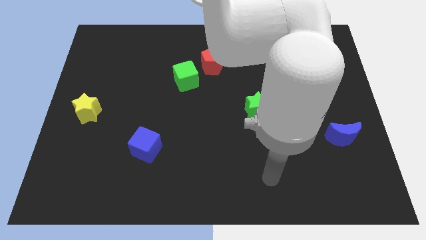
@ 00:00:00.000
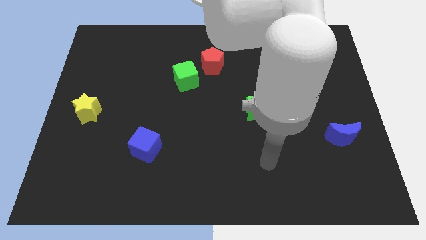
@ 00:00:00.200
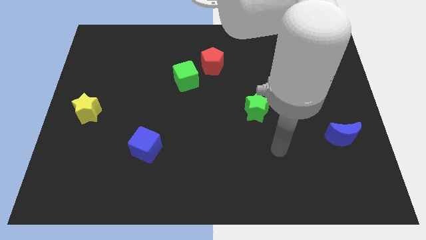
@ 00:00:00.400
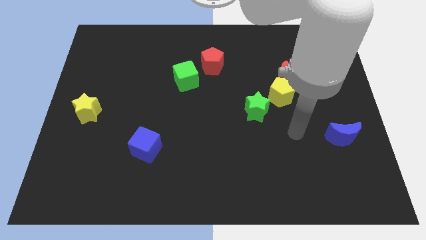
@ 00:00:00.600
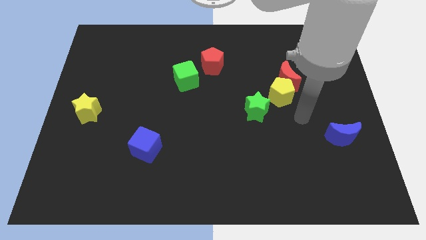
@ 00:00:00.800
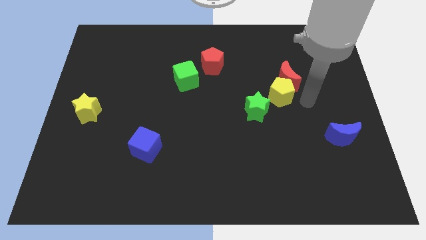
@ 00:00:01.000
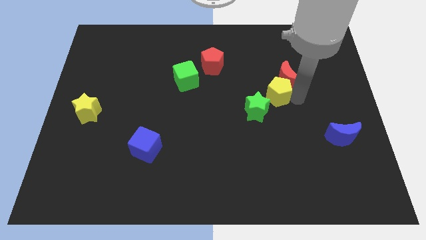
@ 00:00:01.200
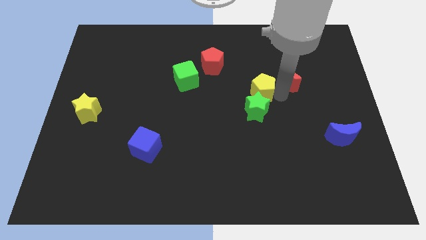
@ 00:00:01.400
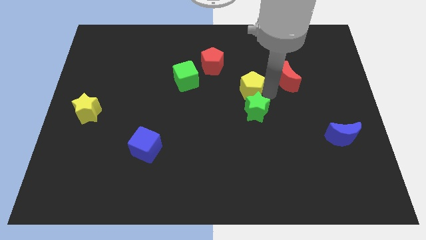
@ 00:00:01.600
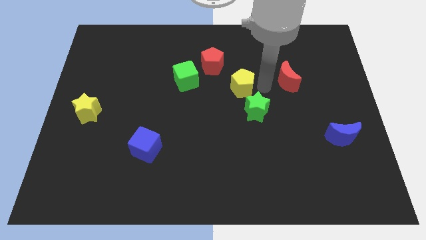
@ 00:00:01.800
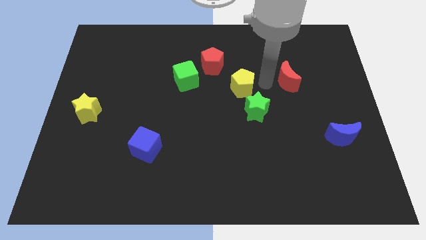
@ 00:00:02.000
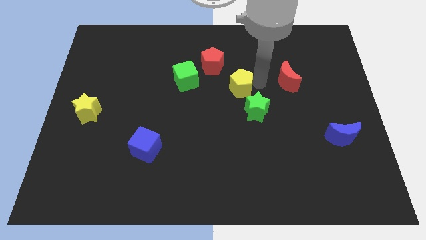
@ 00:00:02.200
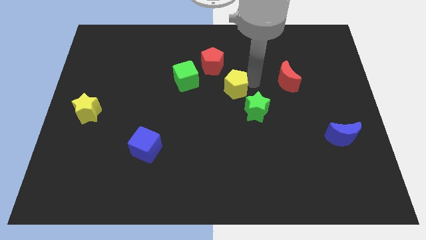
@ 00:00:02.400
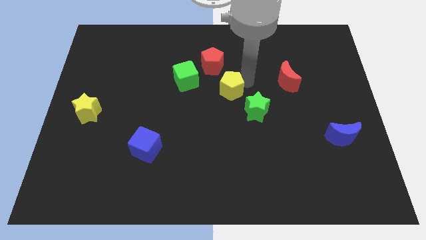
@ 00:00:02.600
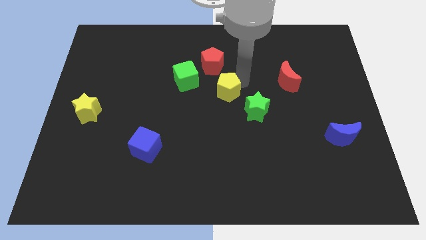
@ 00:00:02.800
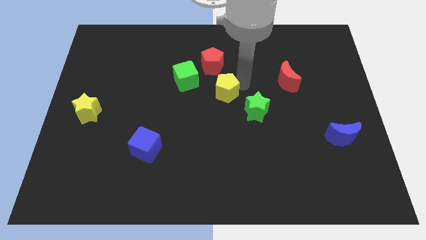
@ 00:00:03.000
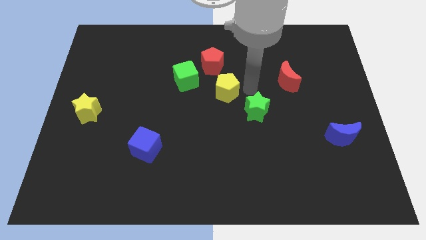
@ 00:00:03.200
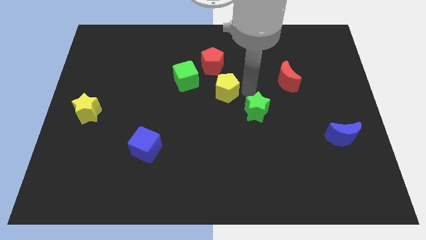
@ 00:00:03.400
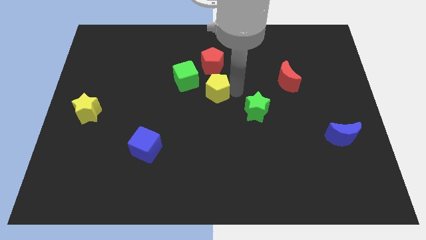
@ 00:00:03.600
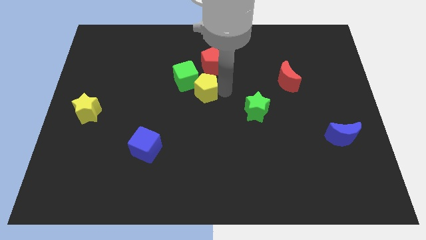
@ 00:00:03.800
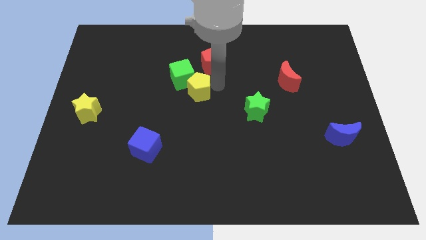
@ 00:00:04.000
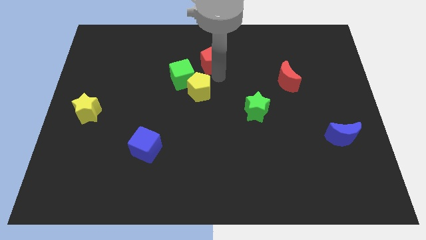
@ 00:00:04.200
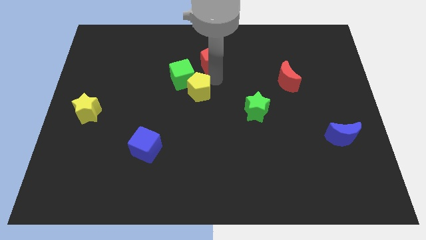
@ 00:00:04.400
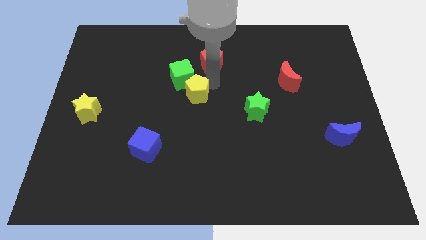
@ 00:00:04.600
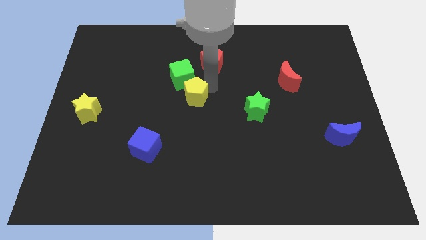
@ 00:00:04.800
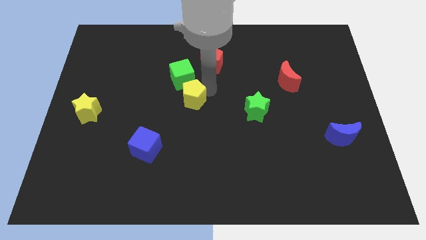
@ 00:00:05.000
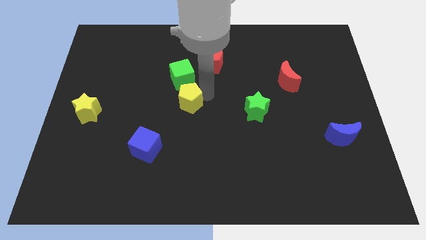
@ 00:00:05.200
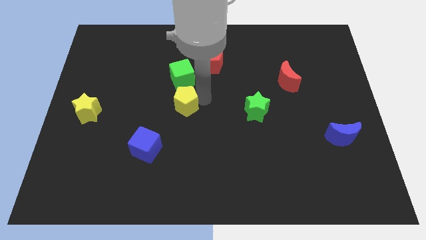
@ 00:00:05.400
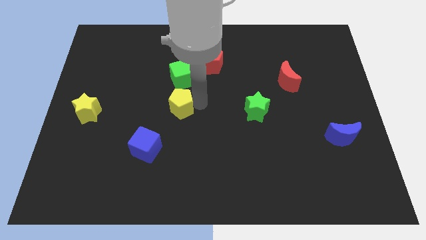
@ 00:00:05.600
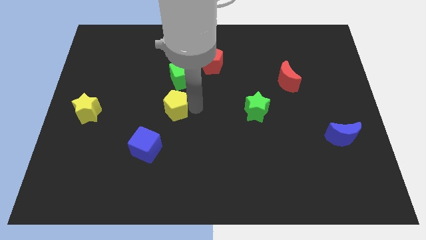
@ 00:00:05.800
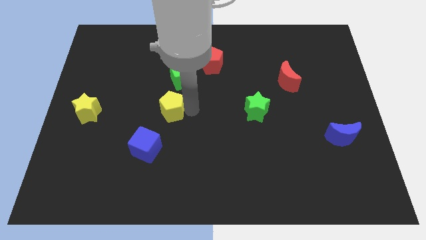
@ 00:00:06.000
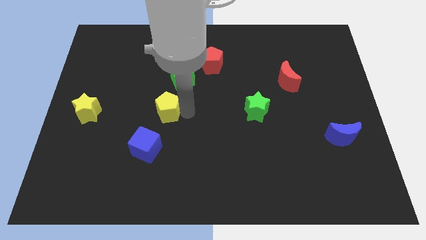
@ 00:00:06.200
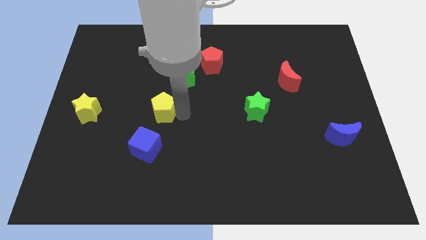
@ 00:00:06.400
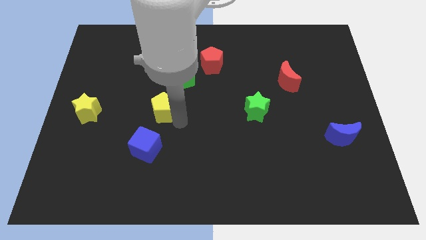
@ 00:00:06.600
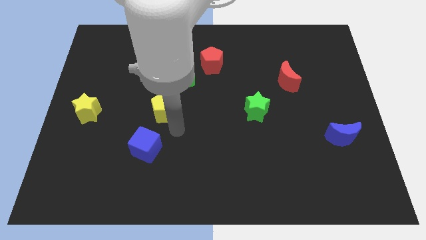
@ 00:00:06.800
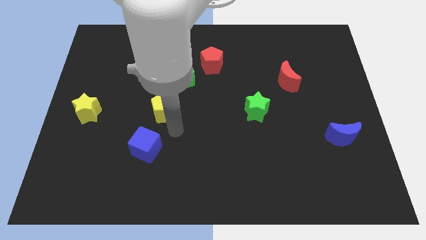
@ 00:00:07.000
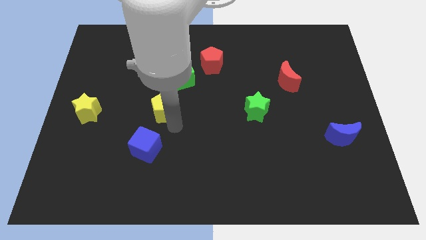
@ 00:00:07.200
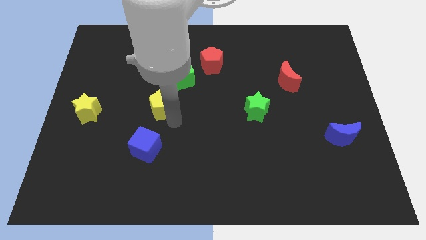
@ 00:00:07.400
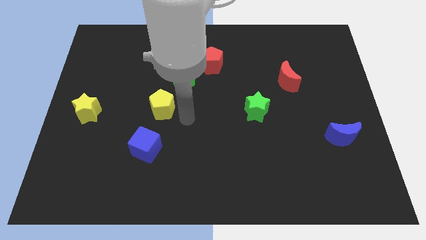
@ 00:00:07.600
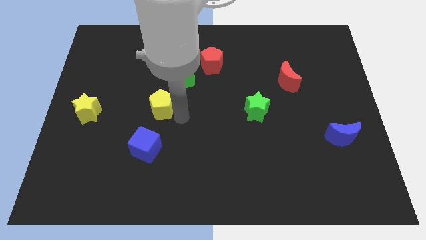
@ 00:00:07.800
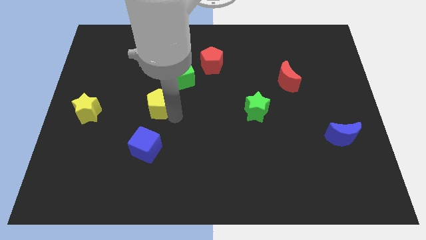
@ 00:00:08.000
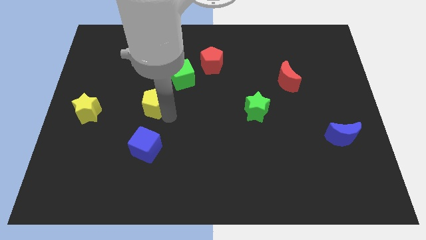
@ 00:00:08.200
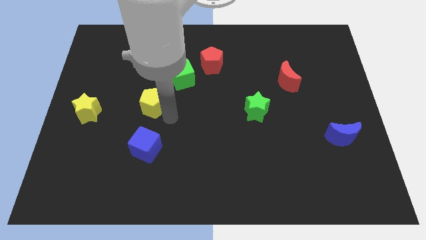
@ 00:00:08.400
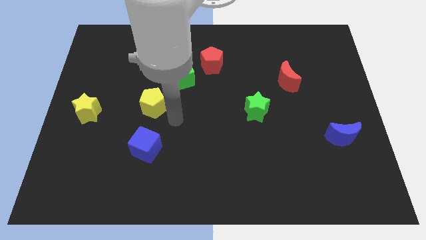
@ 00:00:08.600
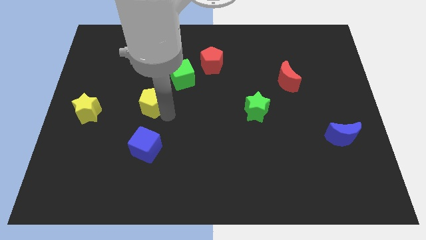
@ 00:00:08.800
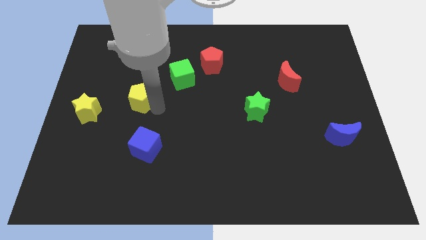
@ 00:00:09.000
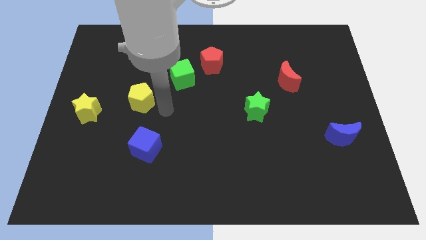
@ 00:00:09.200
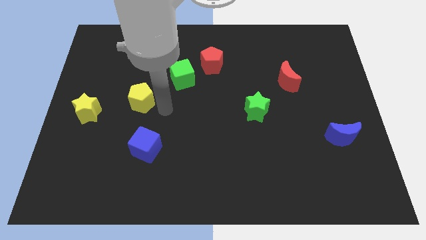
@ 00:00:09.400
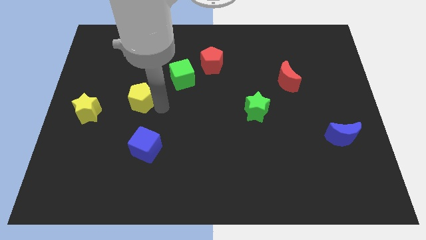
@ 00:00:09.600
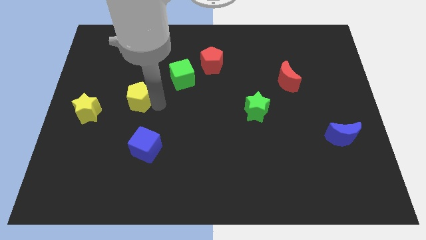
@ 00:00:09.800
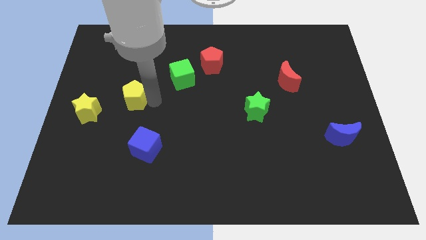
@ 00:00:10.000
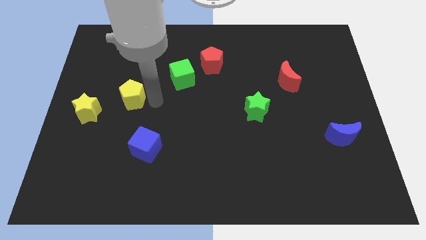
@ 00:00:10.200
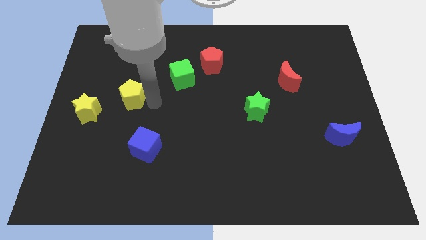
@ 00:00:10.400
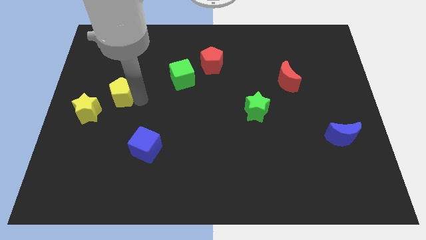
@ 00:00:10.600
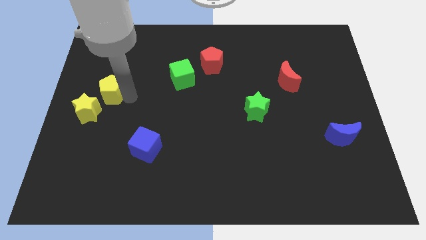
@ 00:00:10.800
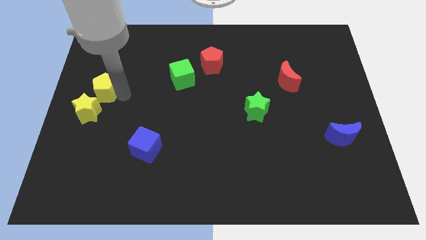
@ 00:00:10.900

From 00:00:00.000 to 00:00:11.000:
move the yellow pentagon to the left side of the board
